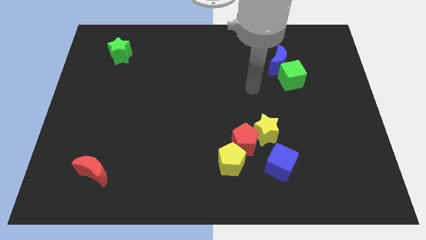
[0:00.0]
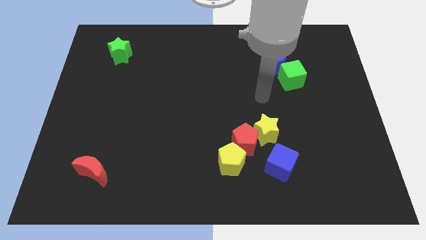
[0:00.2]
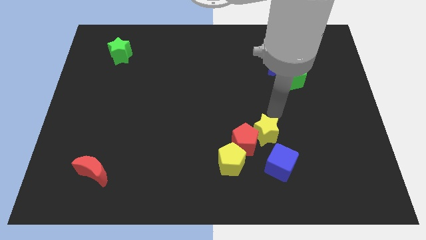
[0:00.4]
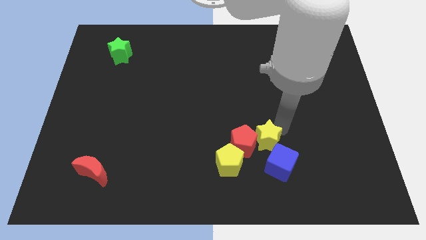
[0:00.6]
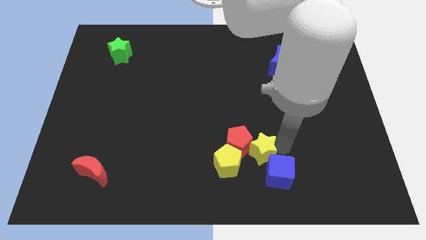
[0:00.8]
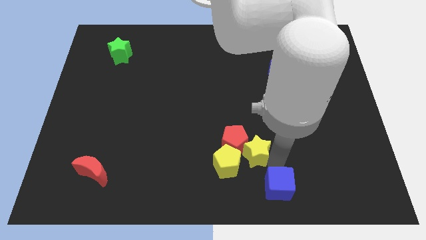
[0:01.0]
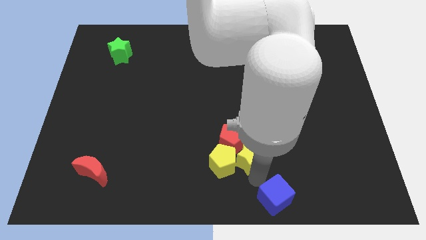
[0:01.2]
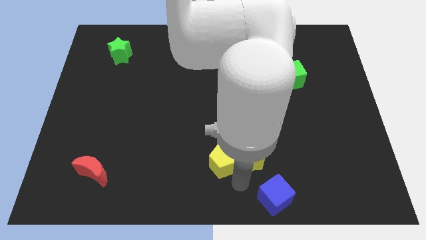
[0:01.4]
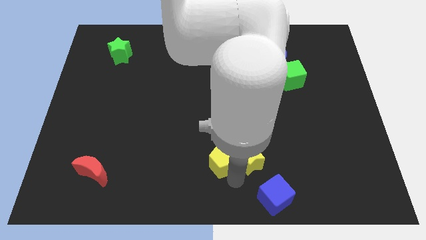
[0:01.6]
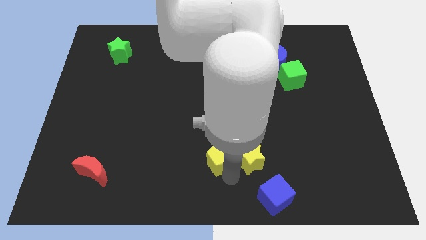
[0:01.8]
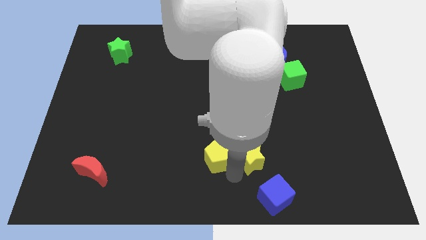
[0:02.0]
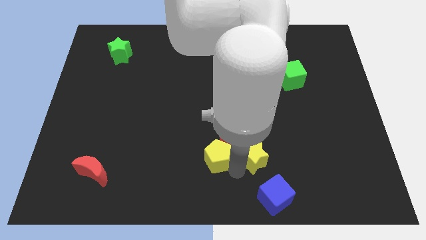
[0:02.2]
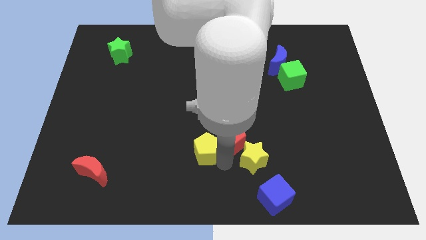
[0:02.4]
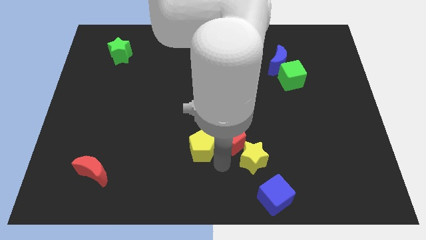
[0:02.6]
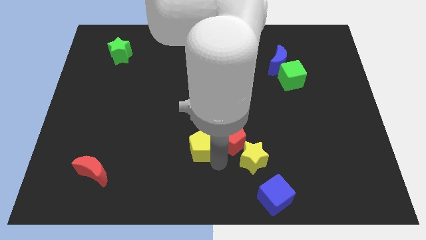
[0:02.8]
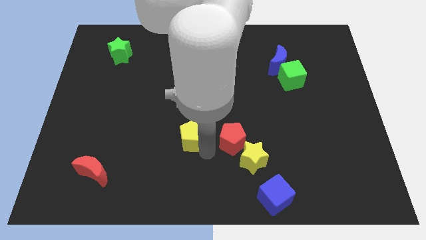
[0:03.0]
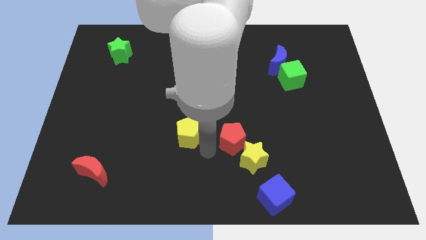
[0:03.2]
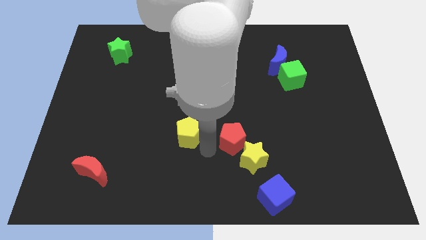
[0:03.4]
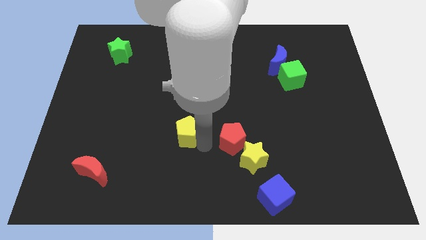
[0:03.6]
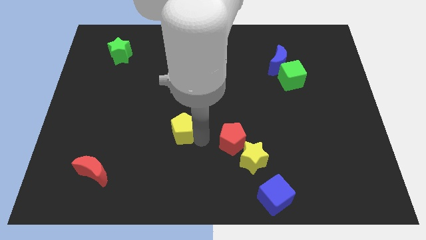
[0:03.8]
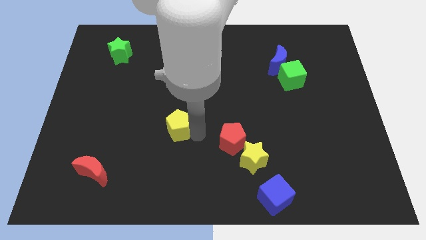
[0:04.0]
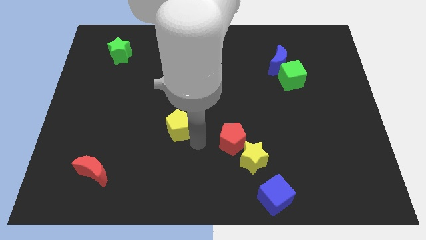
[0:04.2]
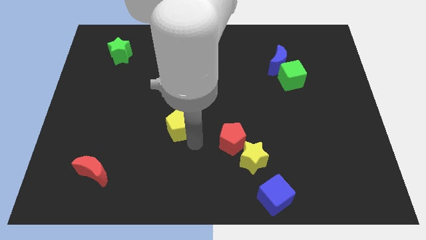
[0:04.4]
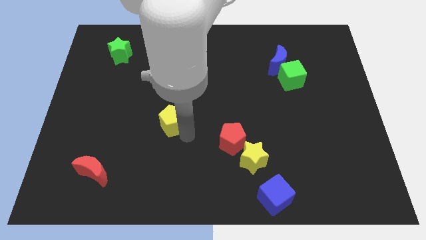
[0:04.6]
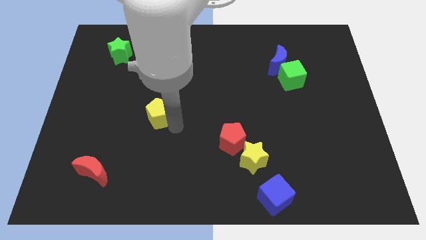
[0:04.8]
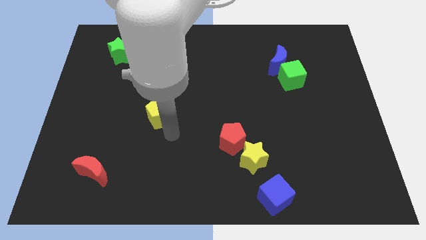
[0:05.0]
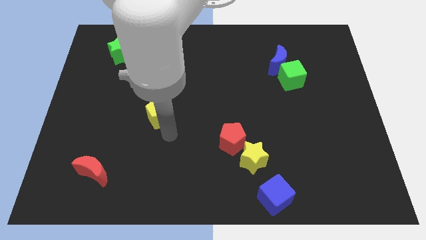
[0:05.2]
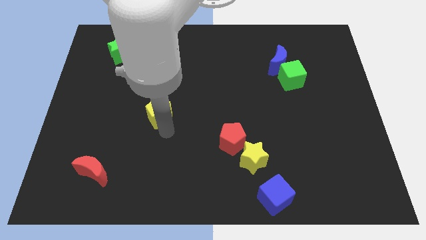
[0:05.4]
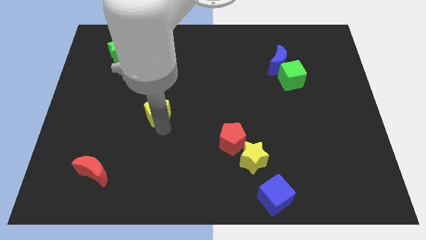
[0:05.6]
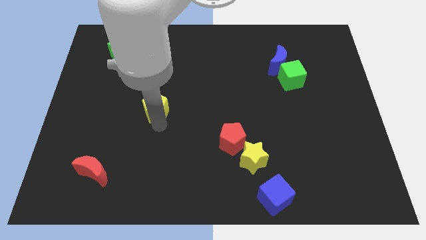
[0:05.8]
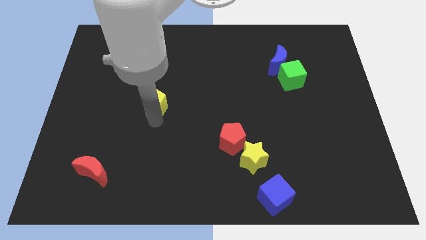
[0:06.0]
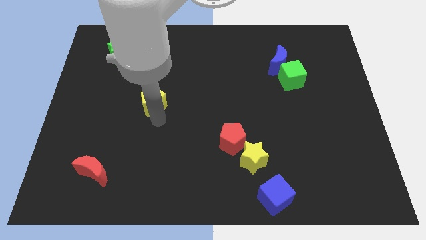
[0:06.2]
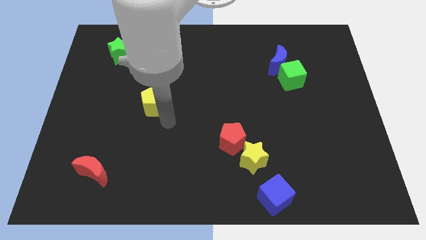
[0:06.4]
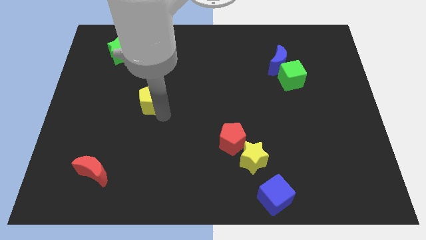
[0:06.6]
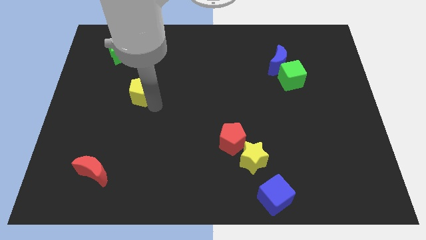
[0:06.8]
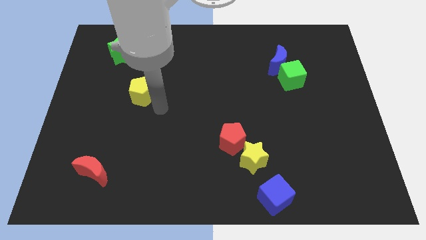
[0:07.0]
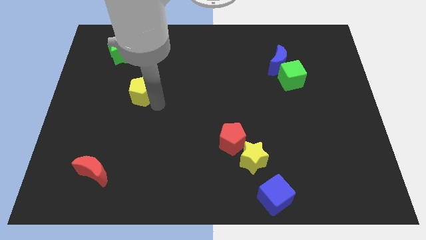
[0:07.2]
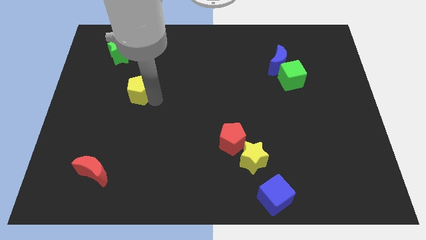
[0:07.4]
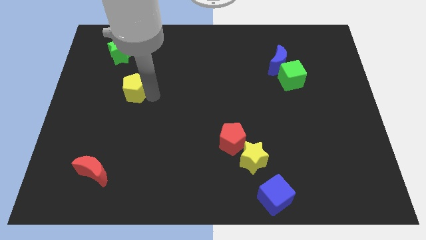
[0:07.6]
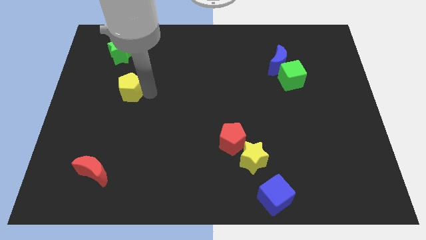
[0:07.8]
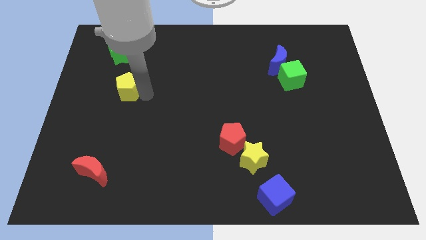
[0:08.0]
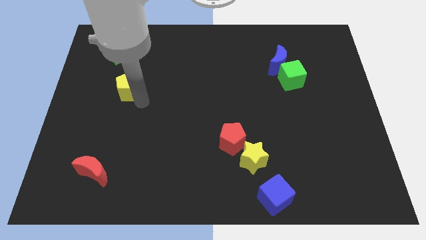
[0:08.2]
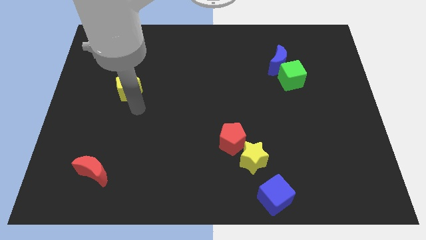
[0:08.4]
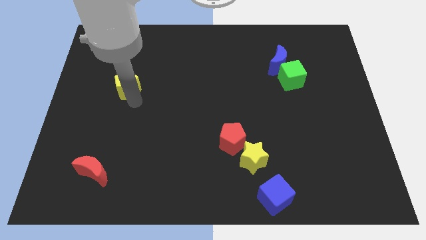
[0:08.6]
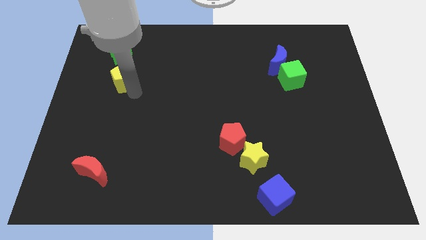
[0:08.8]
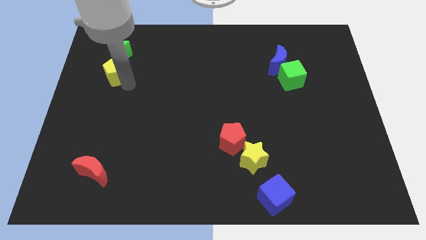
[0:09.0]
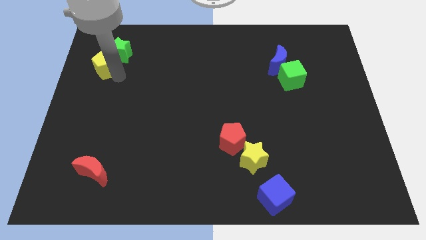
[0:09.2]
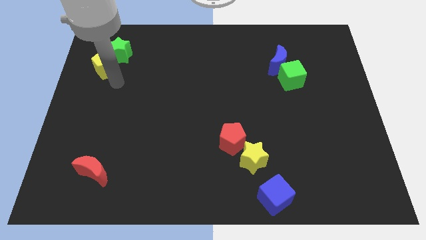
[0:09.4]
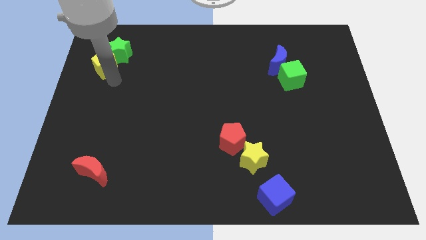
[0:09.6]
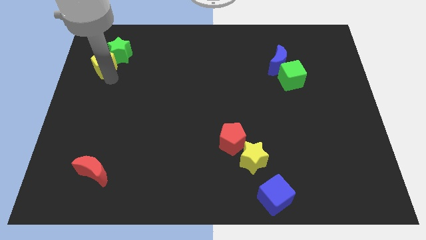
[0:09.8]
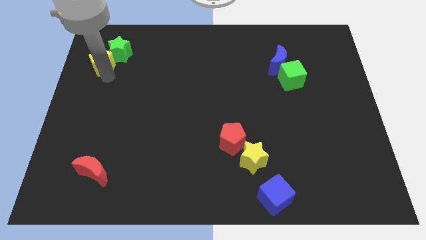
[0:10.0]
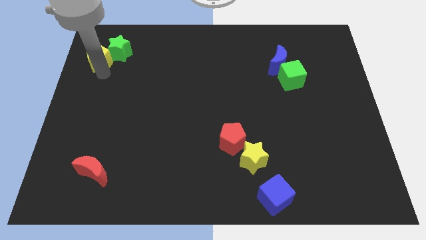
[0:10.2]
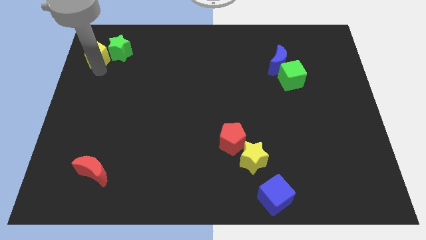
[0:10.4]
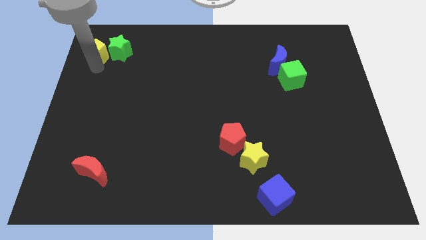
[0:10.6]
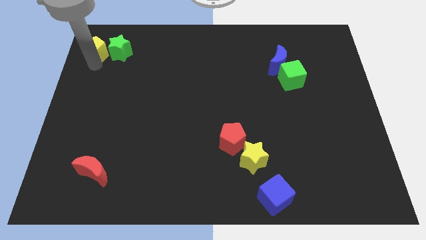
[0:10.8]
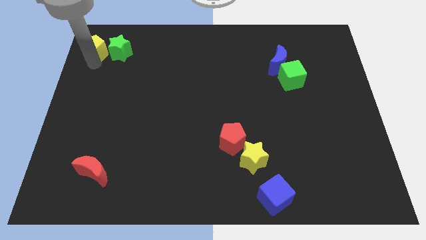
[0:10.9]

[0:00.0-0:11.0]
push the yellow pentagon to the top left
